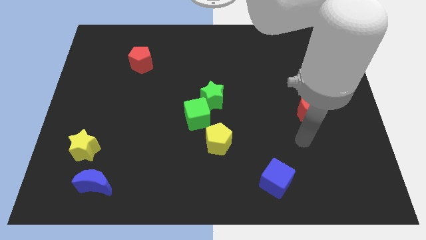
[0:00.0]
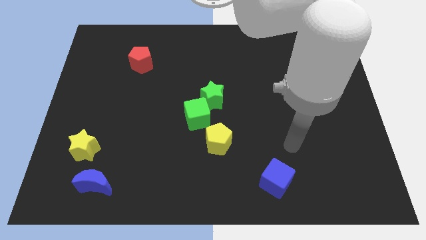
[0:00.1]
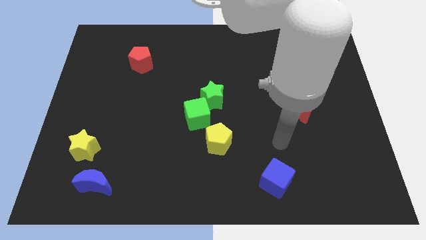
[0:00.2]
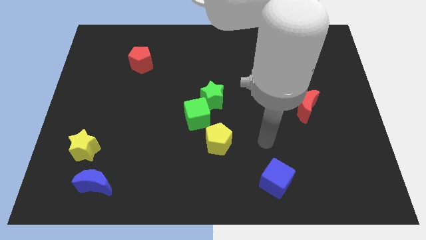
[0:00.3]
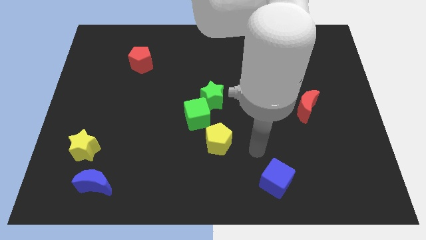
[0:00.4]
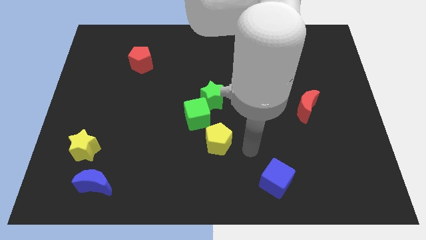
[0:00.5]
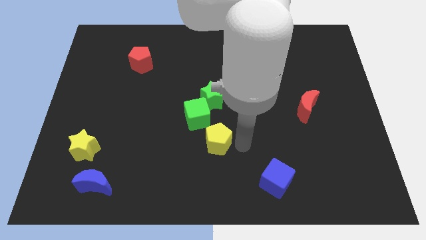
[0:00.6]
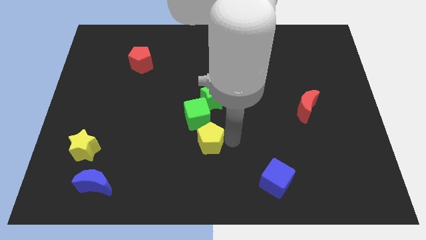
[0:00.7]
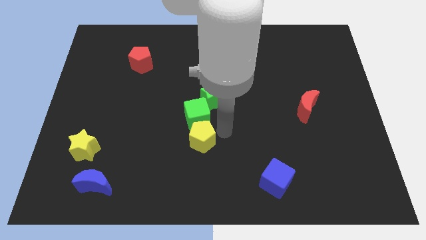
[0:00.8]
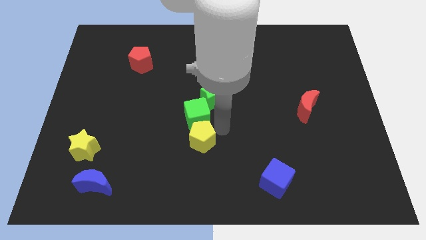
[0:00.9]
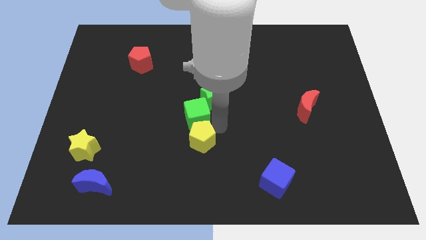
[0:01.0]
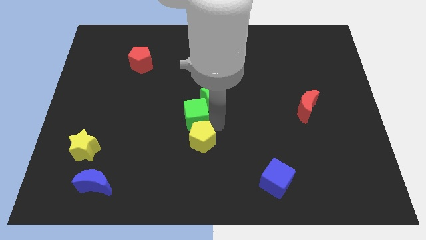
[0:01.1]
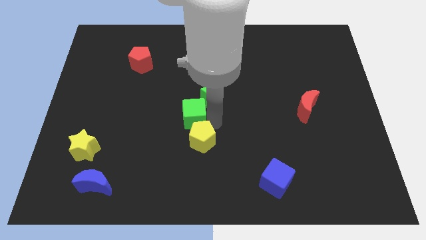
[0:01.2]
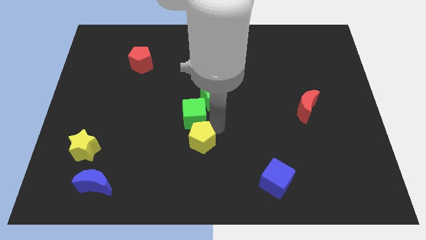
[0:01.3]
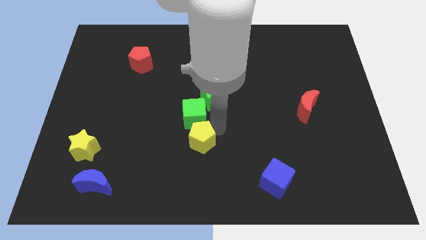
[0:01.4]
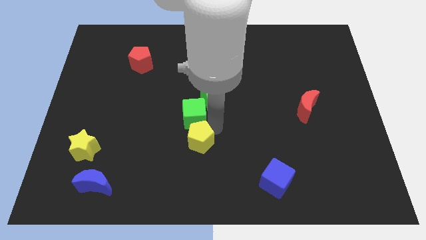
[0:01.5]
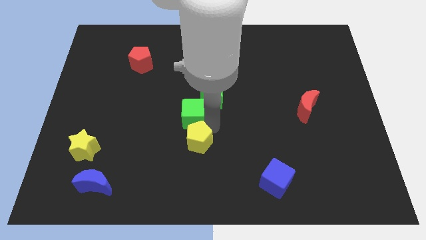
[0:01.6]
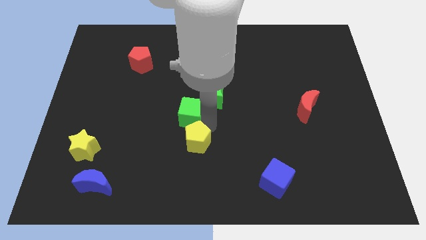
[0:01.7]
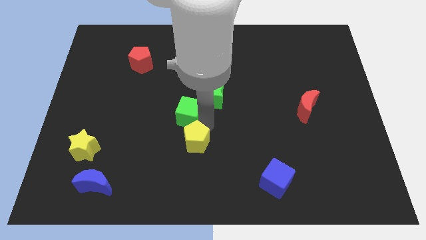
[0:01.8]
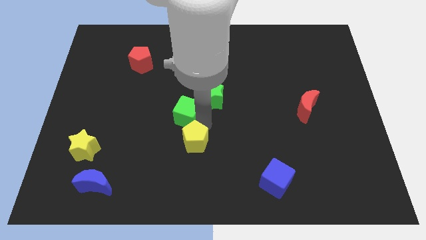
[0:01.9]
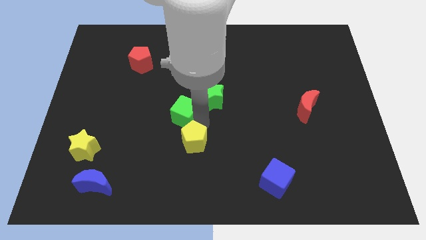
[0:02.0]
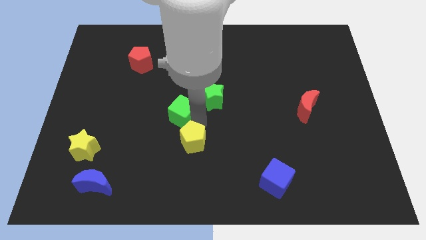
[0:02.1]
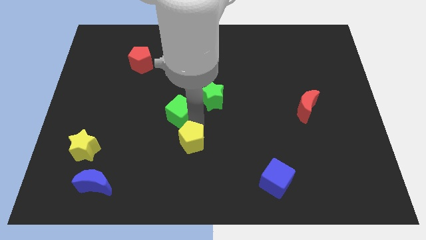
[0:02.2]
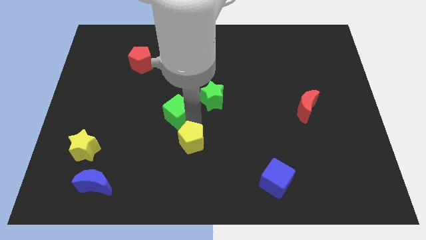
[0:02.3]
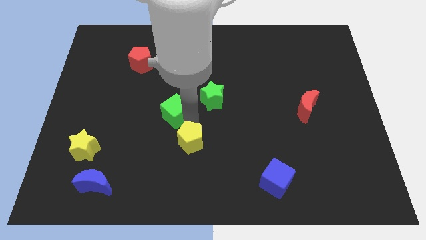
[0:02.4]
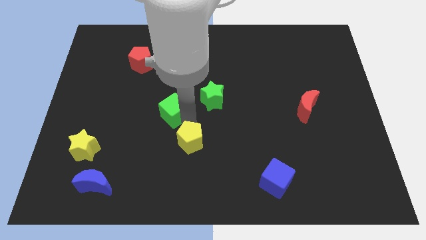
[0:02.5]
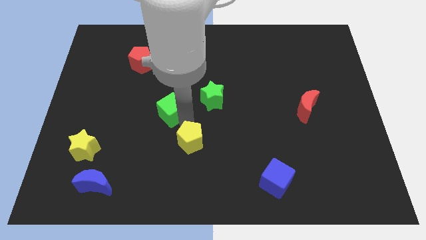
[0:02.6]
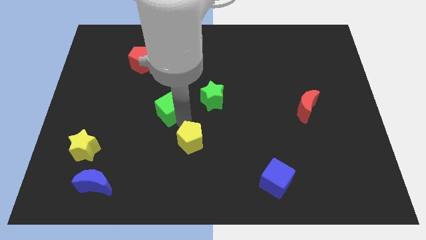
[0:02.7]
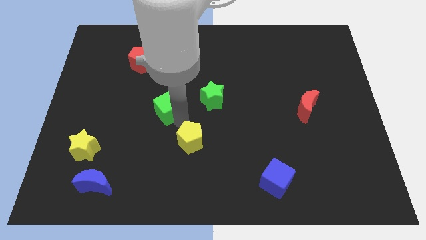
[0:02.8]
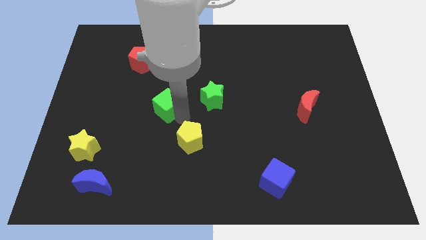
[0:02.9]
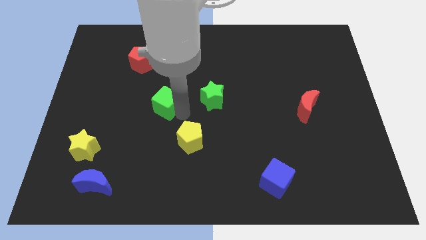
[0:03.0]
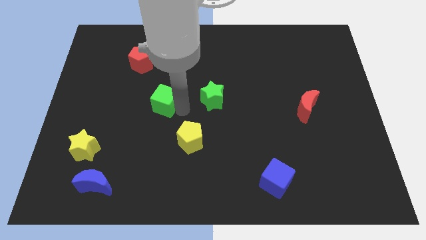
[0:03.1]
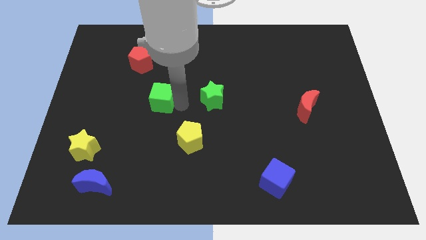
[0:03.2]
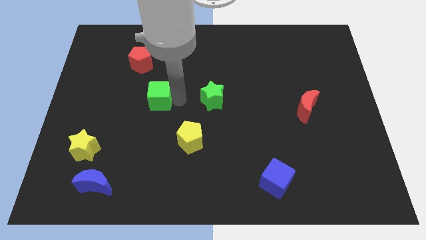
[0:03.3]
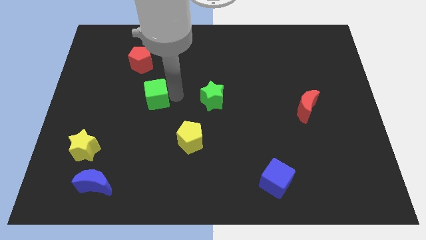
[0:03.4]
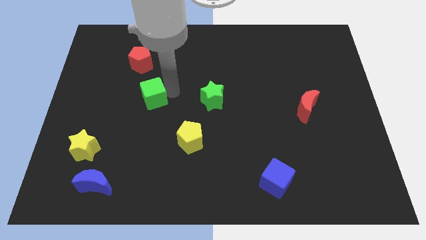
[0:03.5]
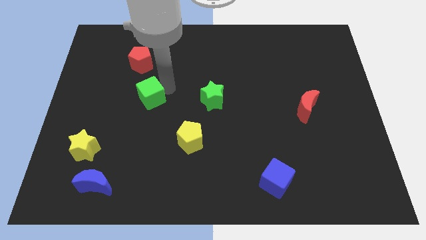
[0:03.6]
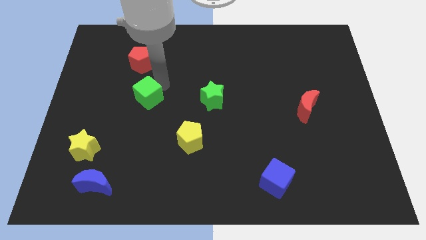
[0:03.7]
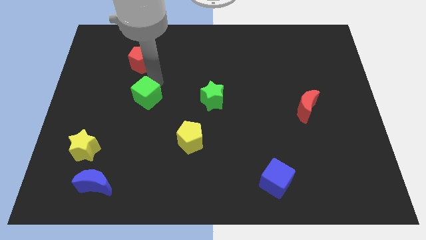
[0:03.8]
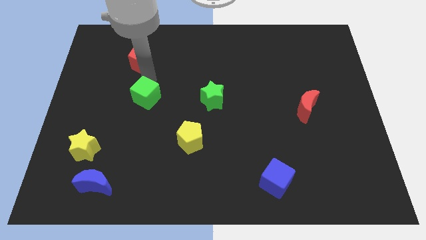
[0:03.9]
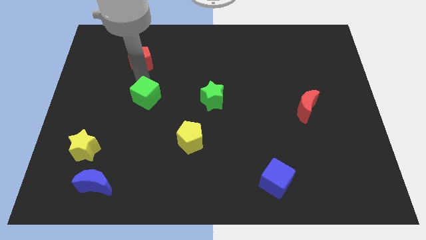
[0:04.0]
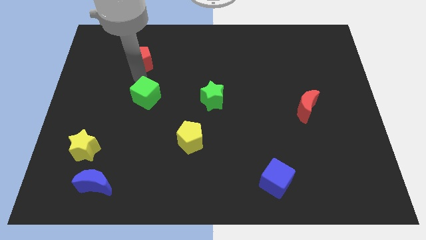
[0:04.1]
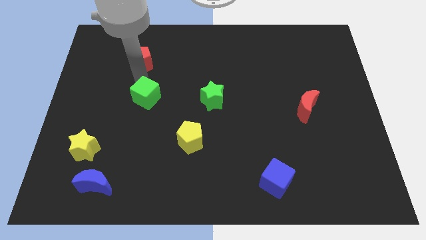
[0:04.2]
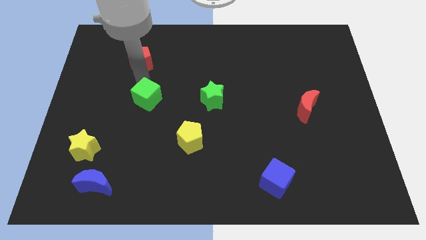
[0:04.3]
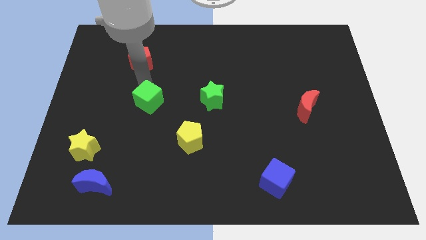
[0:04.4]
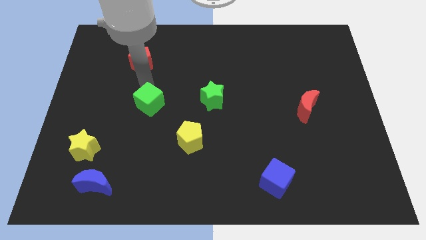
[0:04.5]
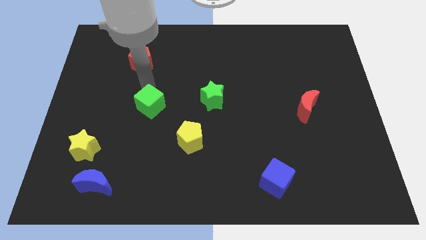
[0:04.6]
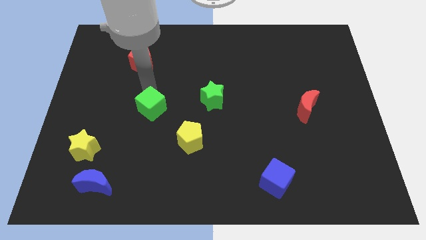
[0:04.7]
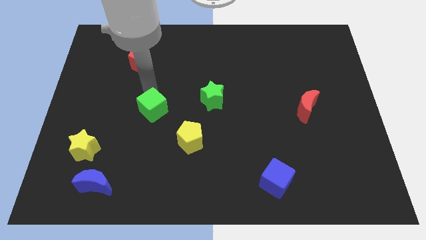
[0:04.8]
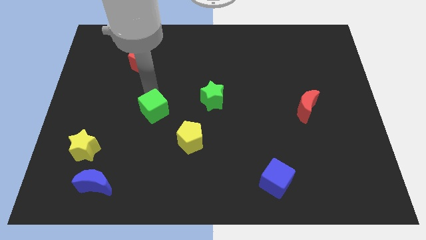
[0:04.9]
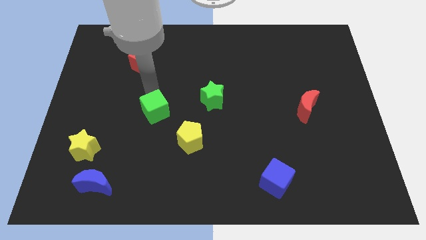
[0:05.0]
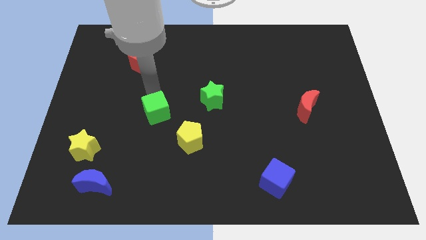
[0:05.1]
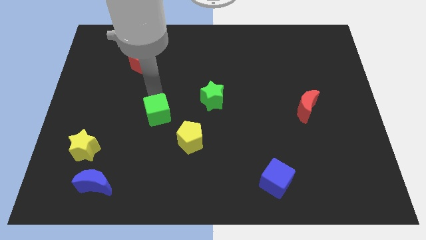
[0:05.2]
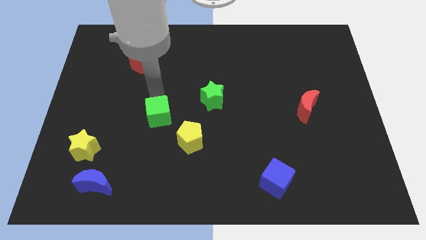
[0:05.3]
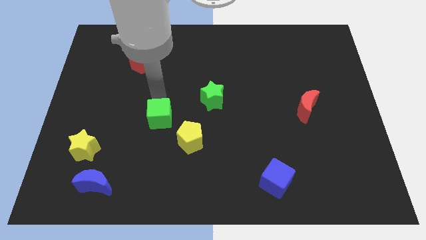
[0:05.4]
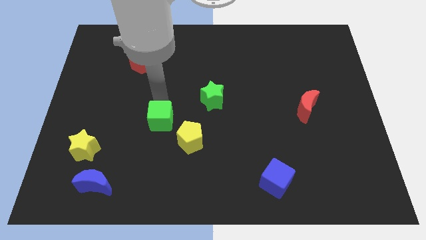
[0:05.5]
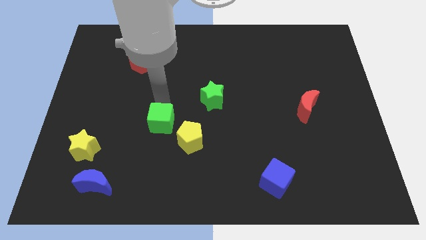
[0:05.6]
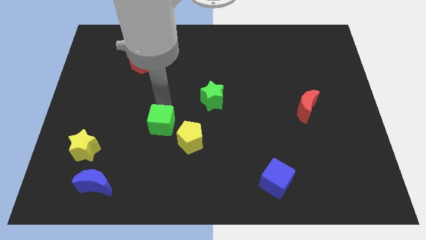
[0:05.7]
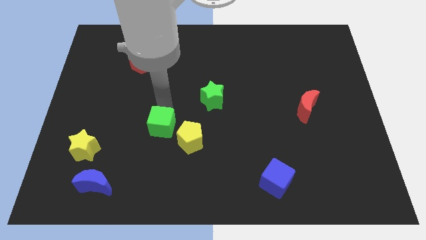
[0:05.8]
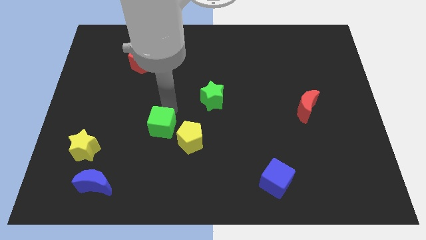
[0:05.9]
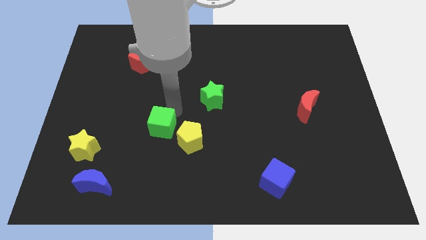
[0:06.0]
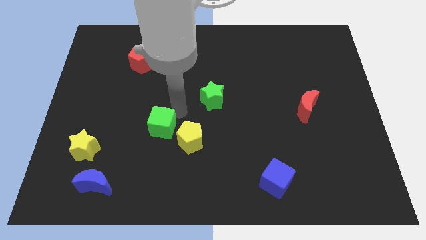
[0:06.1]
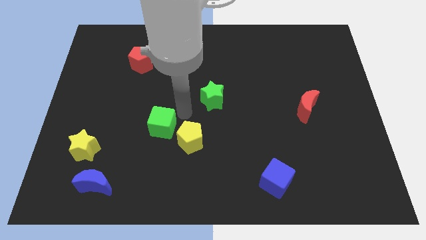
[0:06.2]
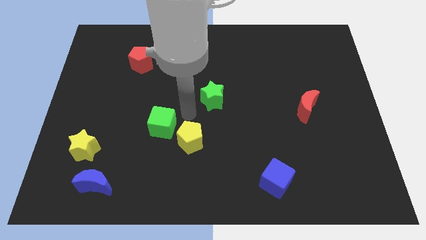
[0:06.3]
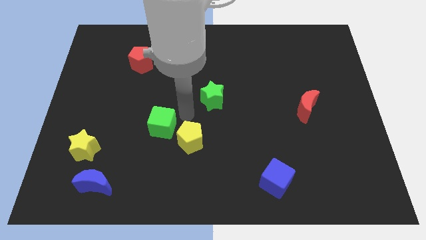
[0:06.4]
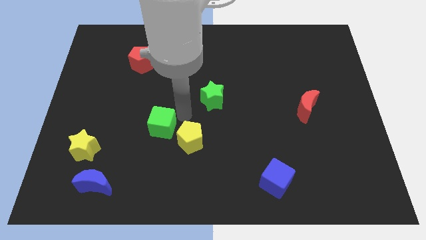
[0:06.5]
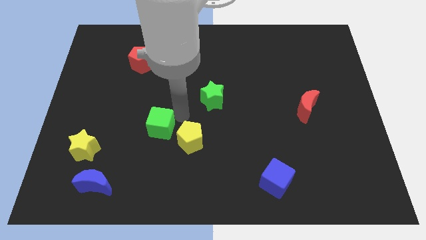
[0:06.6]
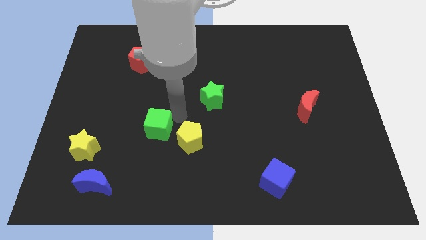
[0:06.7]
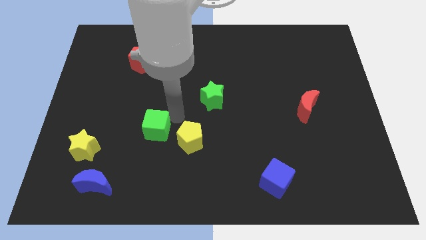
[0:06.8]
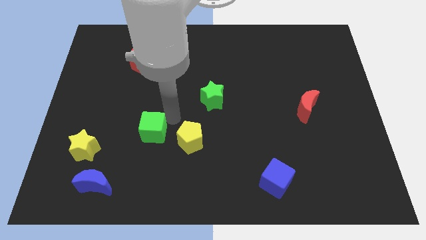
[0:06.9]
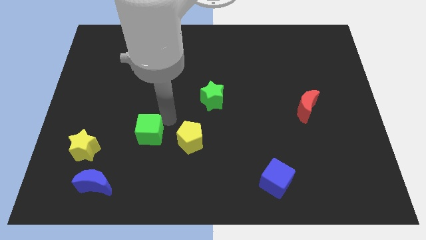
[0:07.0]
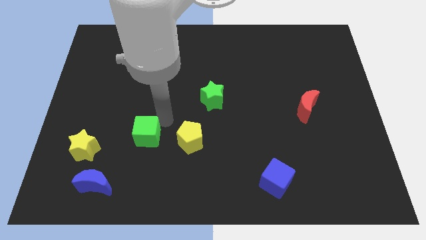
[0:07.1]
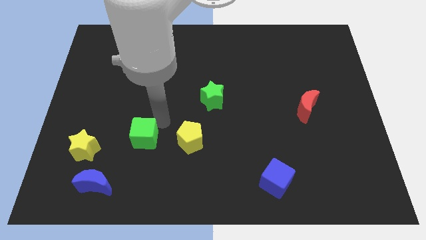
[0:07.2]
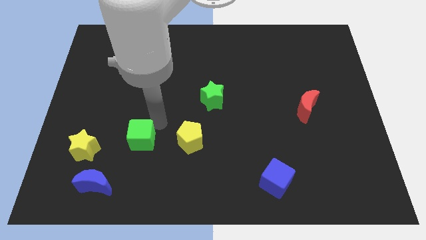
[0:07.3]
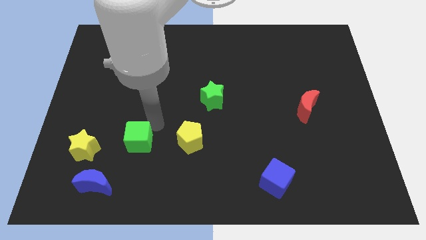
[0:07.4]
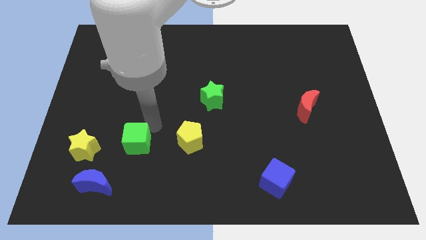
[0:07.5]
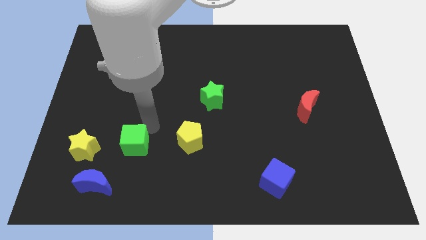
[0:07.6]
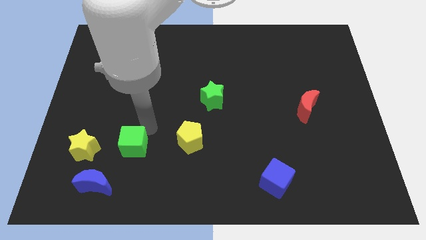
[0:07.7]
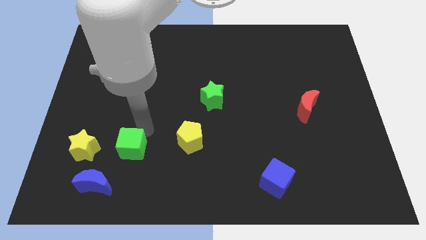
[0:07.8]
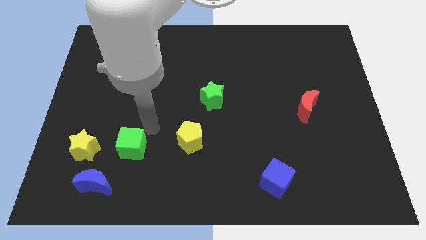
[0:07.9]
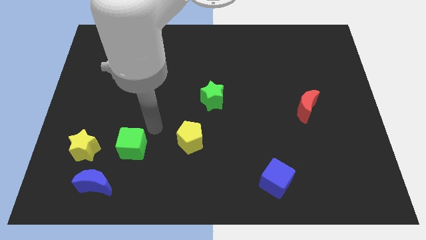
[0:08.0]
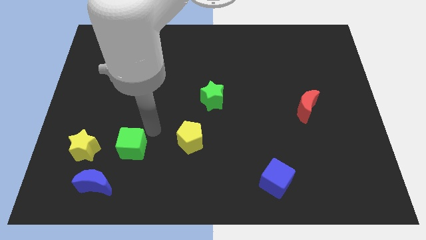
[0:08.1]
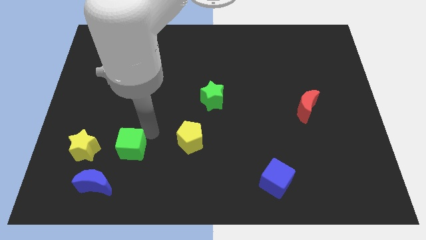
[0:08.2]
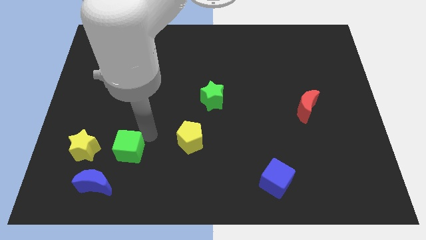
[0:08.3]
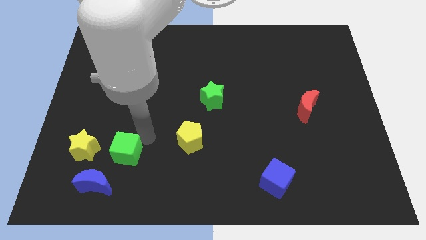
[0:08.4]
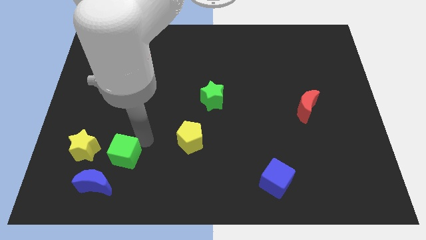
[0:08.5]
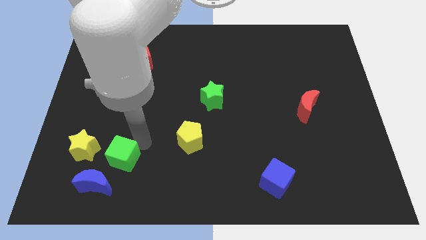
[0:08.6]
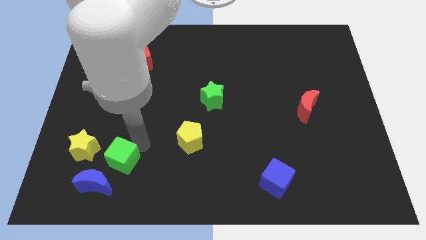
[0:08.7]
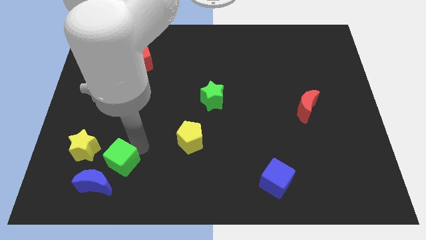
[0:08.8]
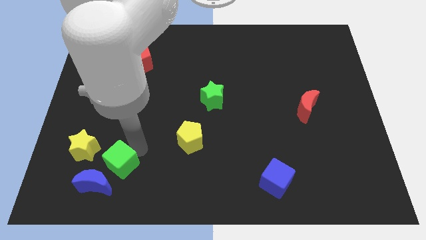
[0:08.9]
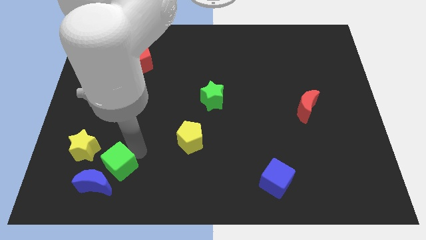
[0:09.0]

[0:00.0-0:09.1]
move the green cube to the blue moon
